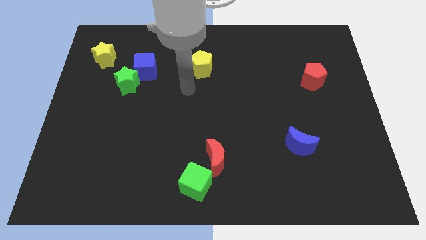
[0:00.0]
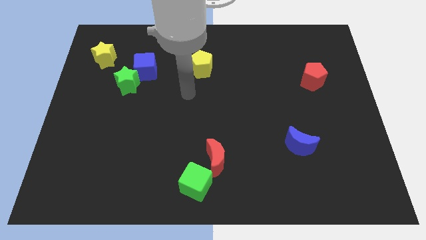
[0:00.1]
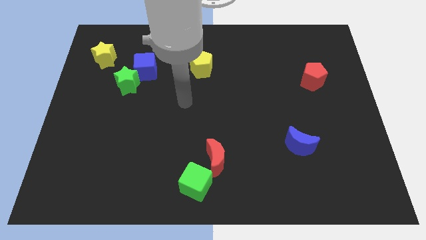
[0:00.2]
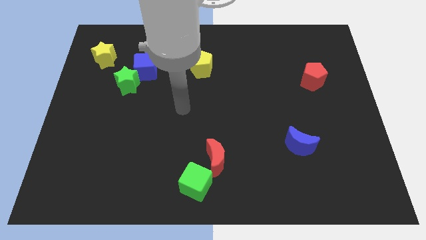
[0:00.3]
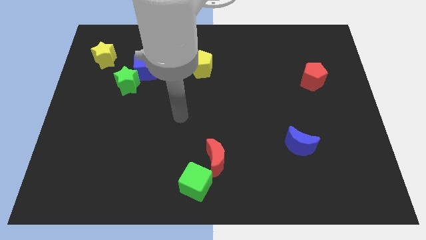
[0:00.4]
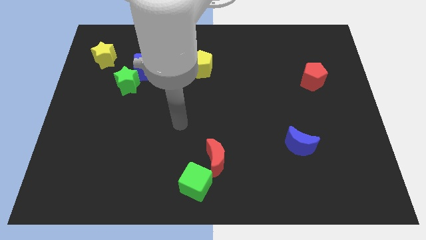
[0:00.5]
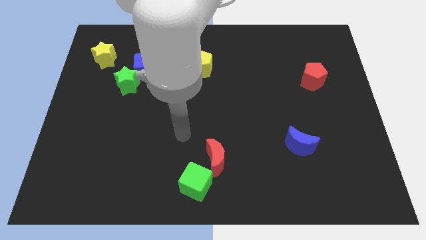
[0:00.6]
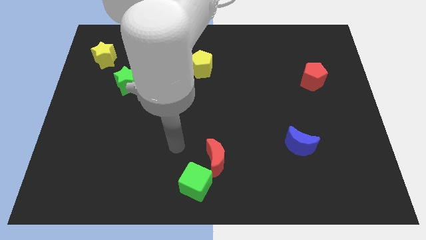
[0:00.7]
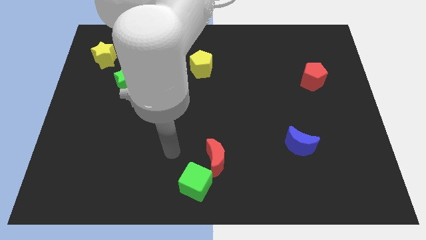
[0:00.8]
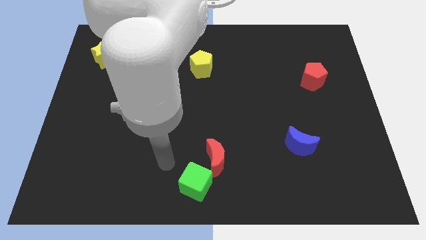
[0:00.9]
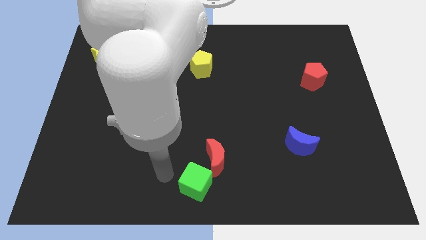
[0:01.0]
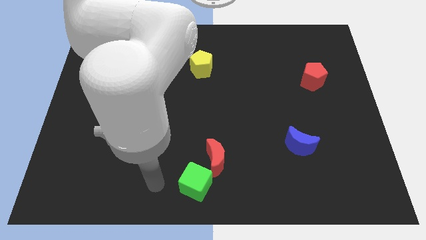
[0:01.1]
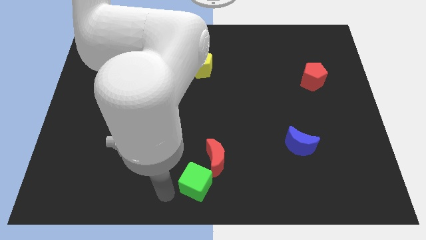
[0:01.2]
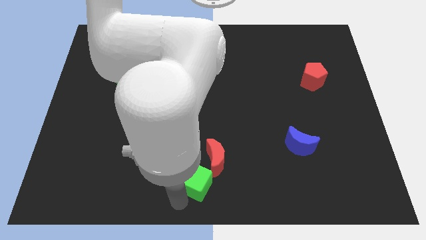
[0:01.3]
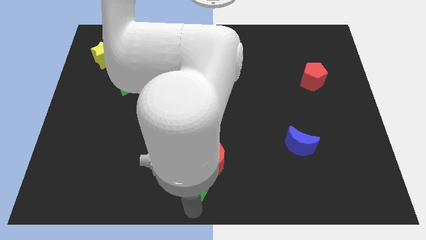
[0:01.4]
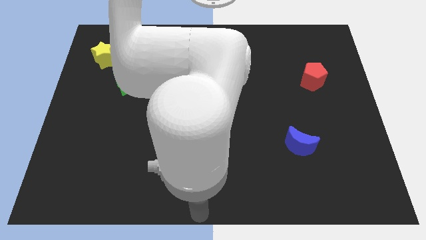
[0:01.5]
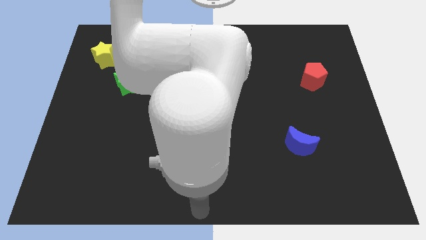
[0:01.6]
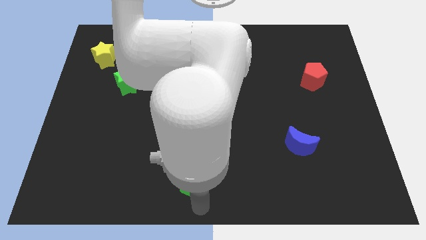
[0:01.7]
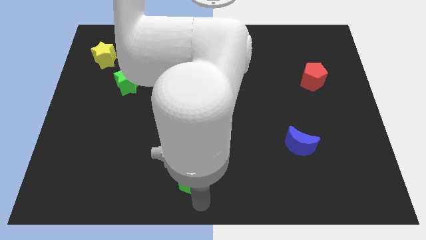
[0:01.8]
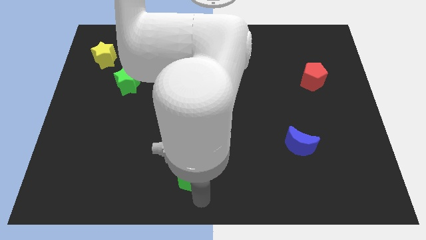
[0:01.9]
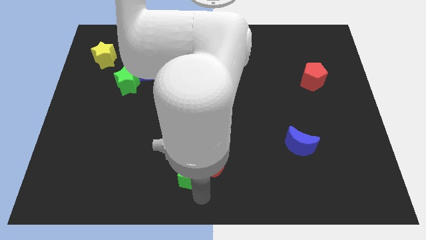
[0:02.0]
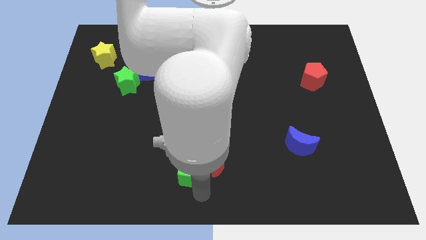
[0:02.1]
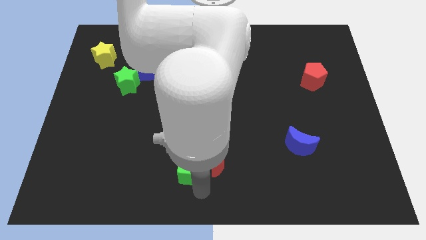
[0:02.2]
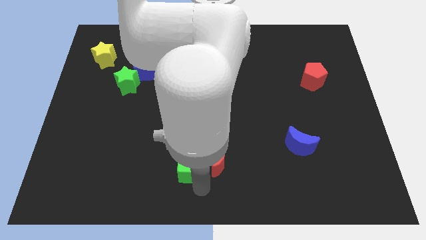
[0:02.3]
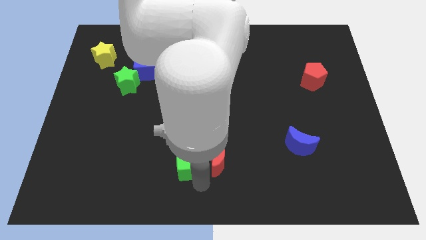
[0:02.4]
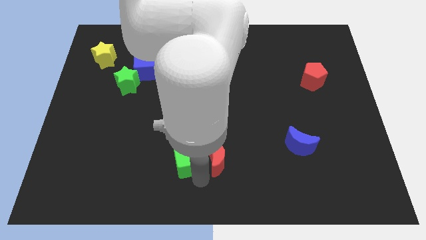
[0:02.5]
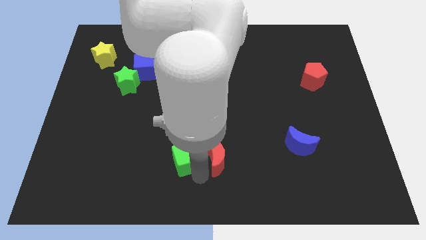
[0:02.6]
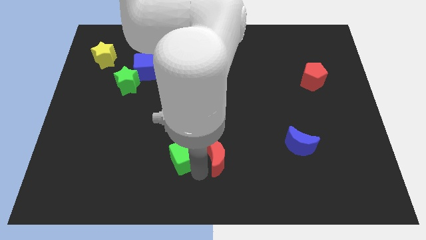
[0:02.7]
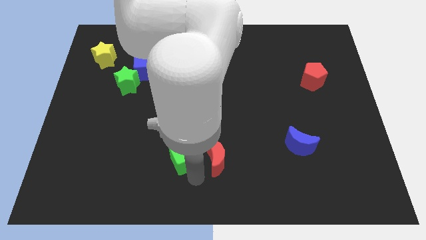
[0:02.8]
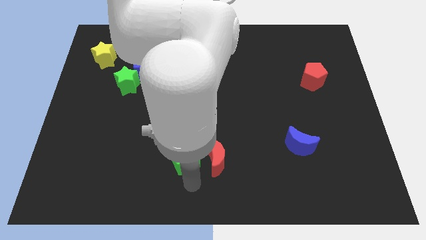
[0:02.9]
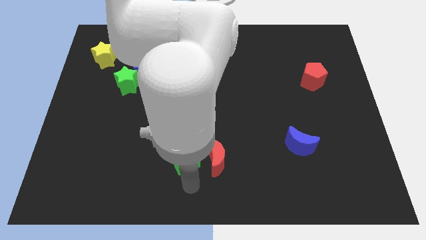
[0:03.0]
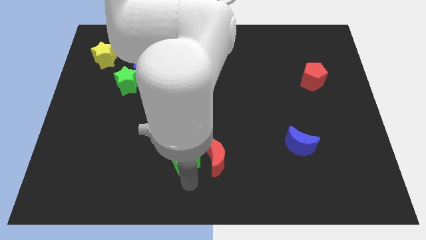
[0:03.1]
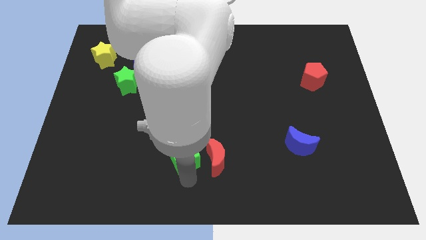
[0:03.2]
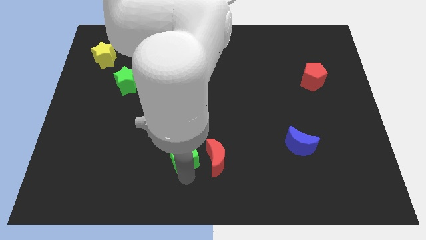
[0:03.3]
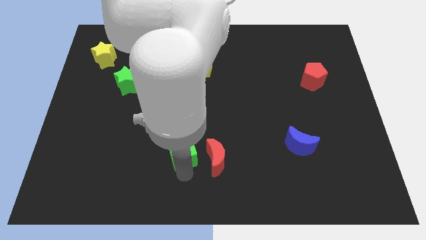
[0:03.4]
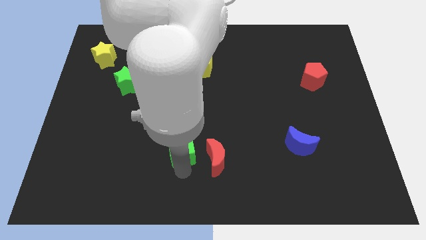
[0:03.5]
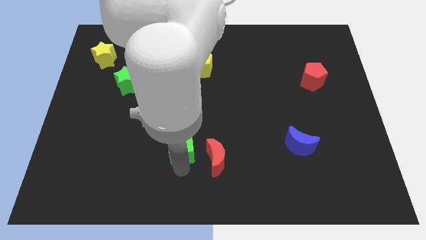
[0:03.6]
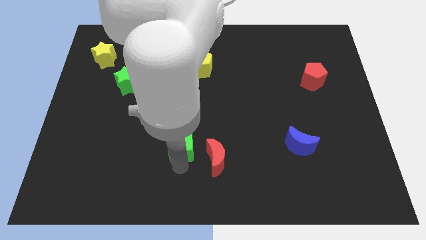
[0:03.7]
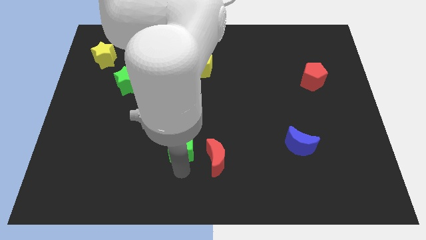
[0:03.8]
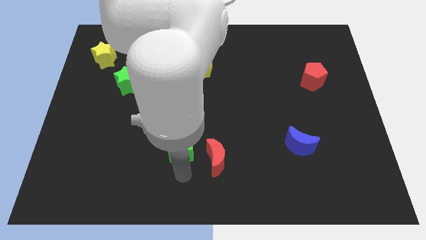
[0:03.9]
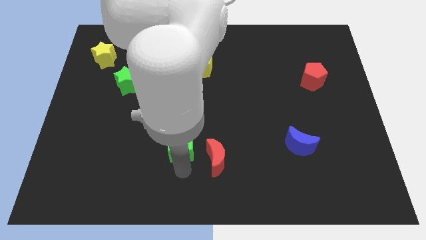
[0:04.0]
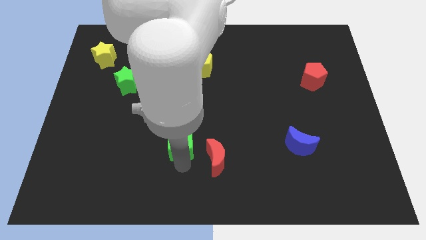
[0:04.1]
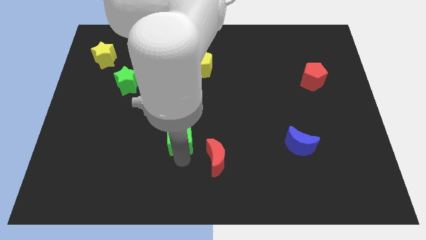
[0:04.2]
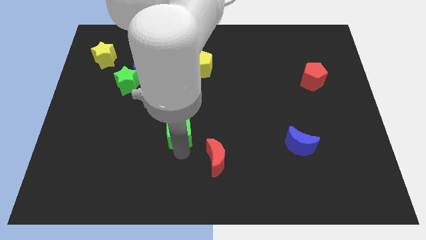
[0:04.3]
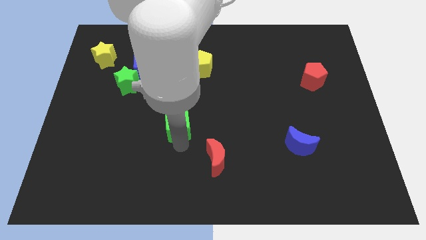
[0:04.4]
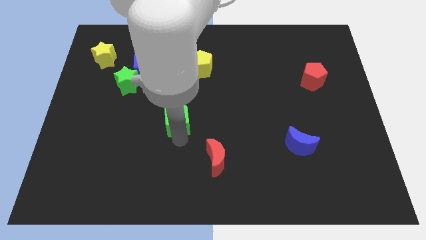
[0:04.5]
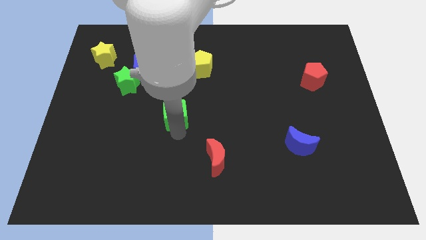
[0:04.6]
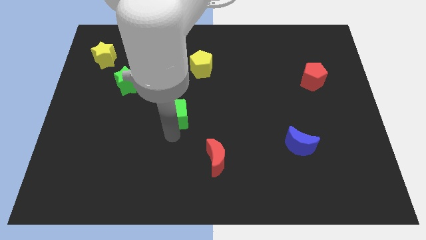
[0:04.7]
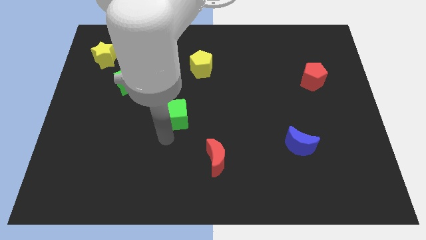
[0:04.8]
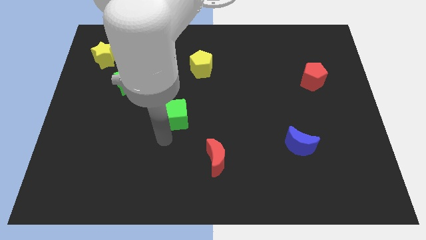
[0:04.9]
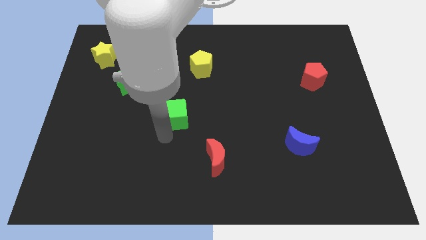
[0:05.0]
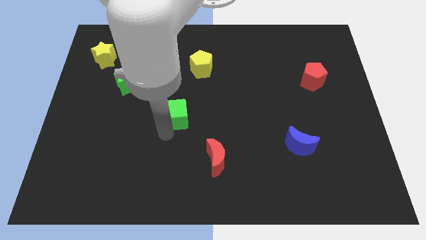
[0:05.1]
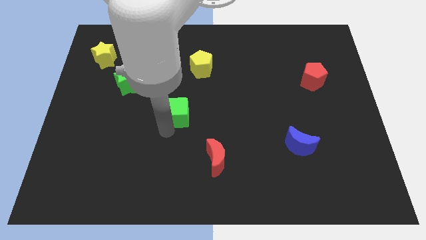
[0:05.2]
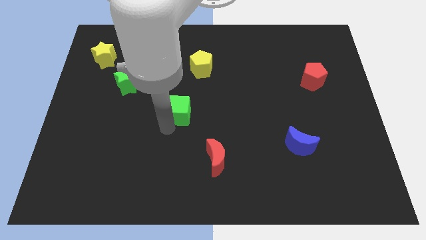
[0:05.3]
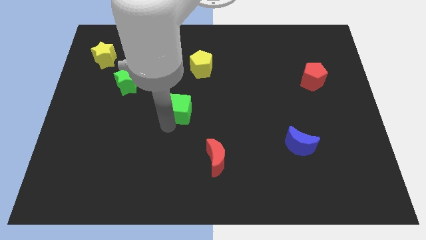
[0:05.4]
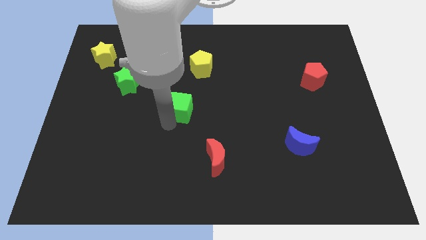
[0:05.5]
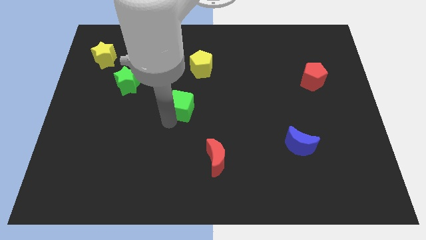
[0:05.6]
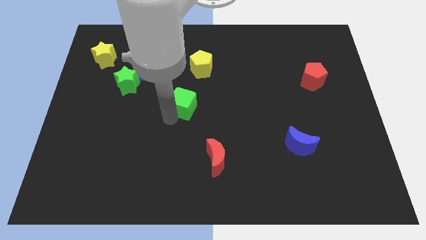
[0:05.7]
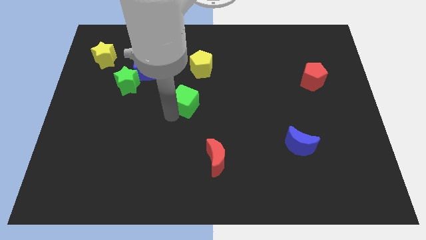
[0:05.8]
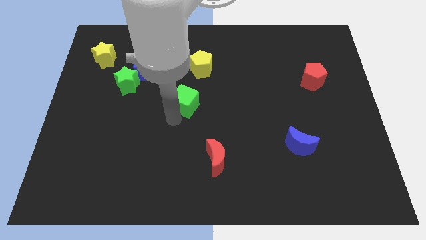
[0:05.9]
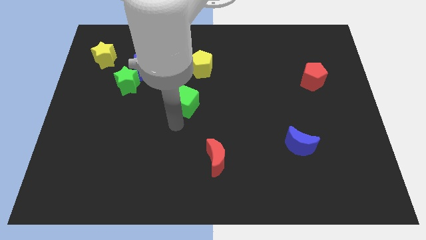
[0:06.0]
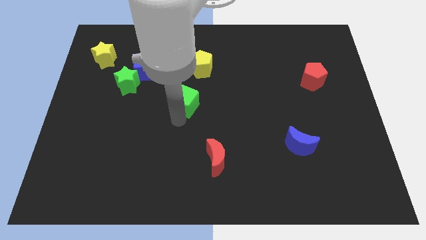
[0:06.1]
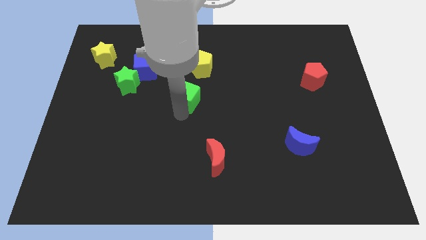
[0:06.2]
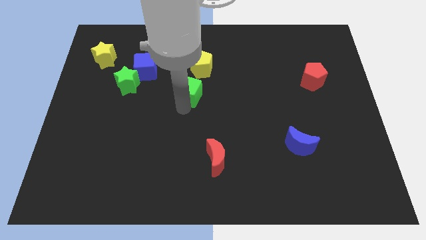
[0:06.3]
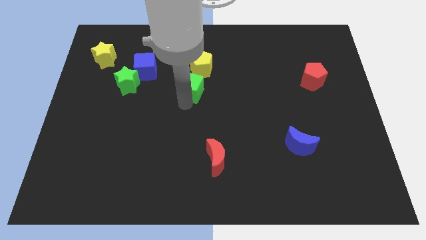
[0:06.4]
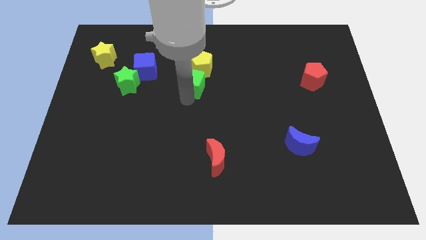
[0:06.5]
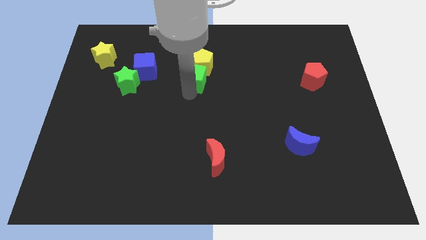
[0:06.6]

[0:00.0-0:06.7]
put the green cube towards the yellow pentagon
